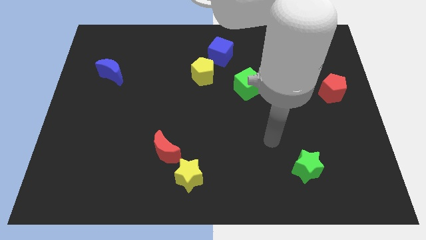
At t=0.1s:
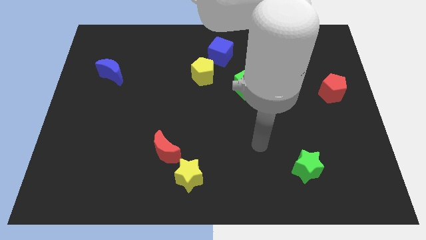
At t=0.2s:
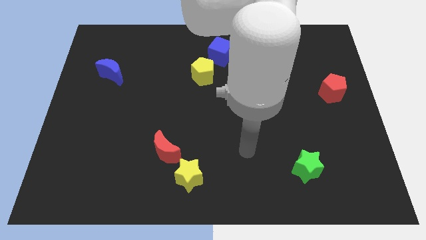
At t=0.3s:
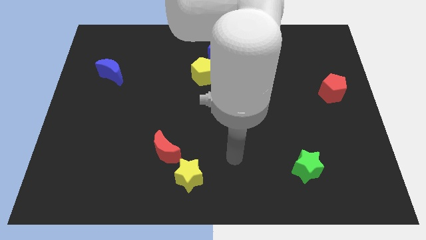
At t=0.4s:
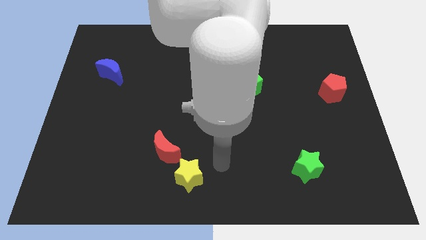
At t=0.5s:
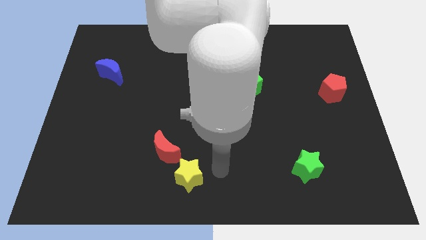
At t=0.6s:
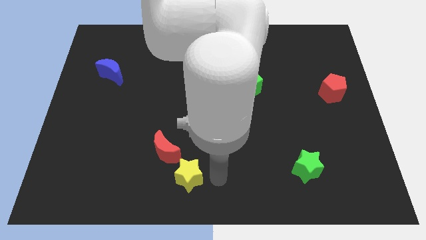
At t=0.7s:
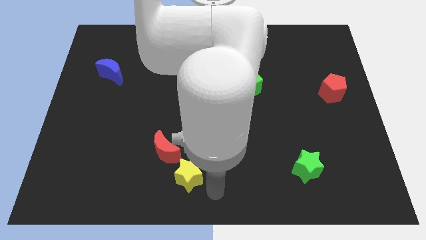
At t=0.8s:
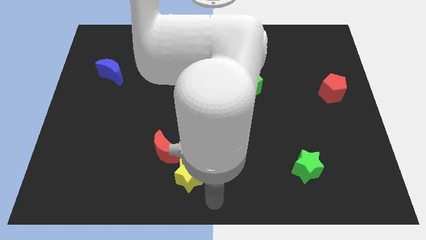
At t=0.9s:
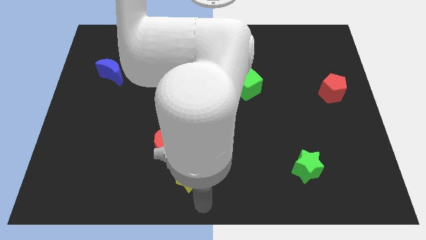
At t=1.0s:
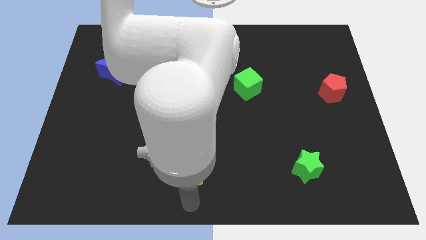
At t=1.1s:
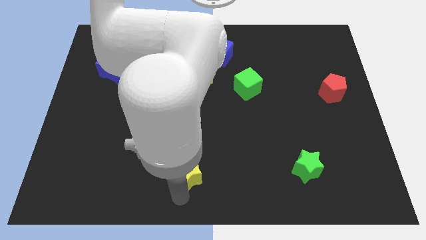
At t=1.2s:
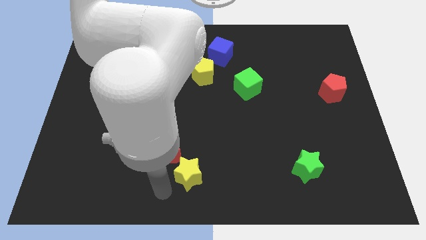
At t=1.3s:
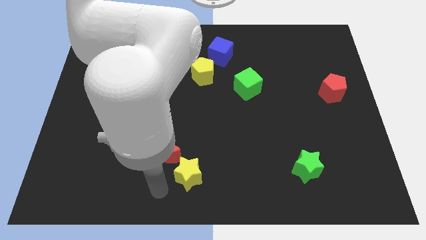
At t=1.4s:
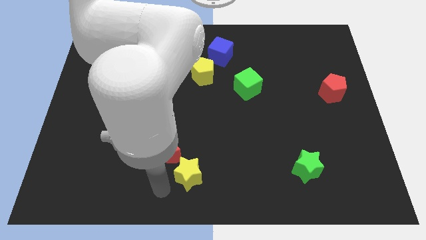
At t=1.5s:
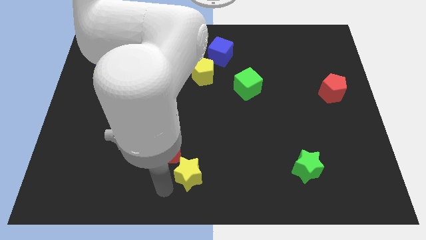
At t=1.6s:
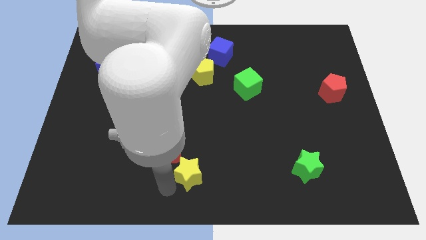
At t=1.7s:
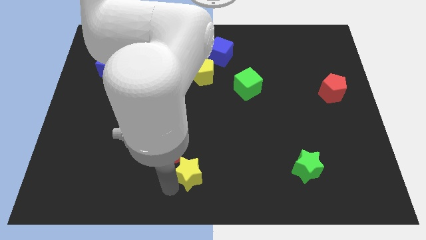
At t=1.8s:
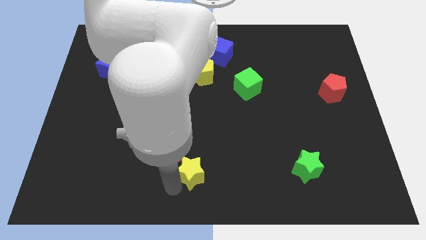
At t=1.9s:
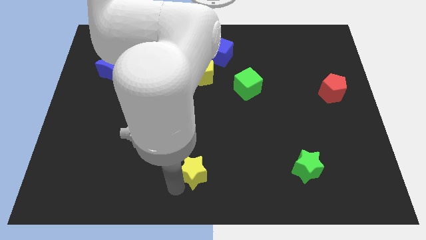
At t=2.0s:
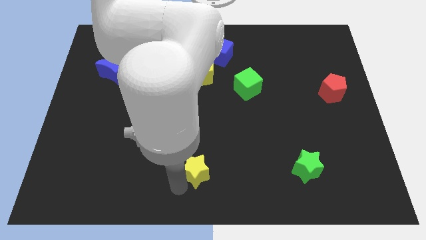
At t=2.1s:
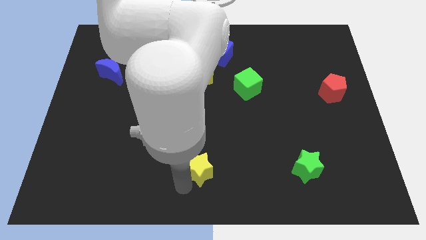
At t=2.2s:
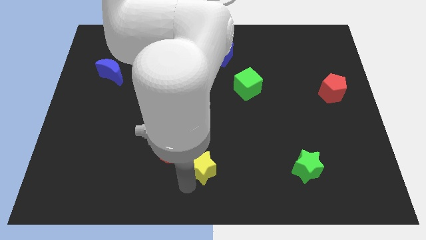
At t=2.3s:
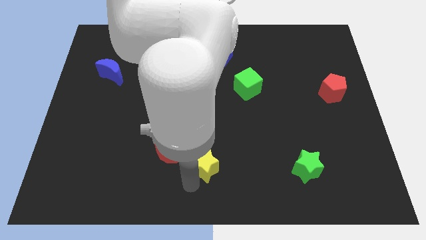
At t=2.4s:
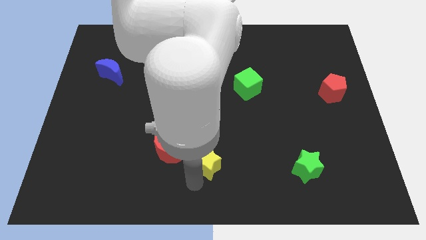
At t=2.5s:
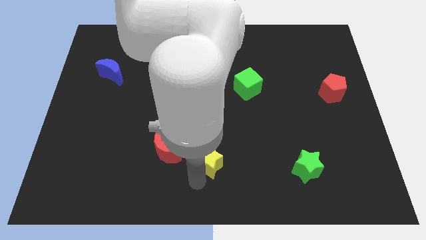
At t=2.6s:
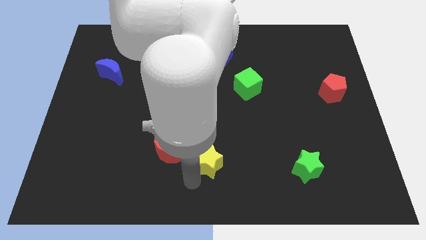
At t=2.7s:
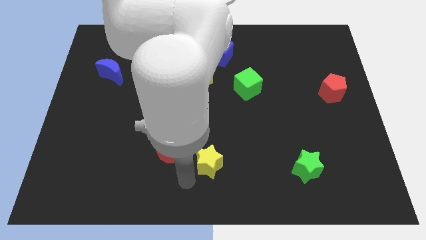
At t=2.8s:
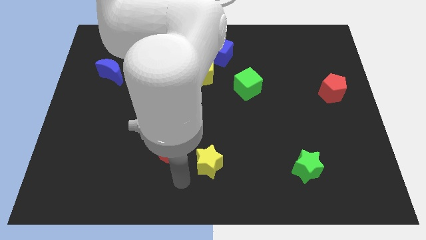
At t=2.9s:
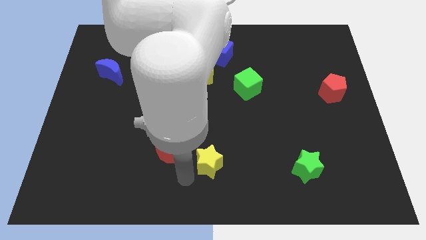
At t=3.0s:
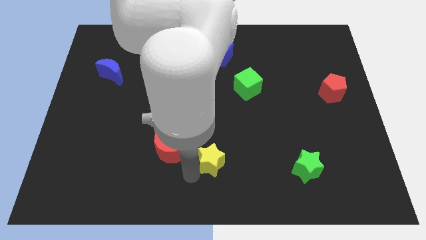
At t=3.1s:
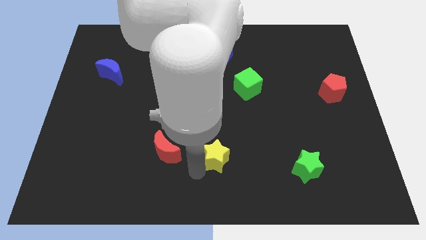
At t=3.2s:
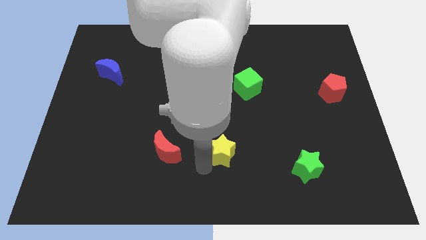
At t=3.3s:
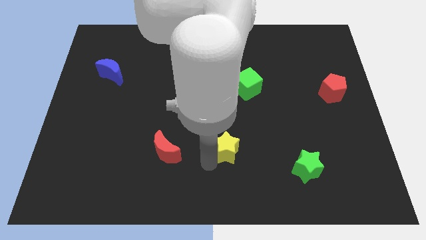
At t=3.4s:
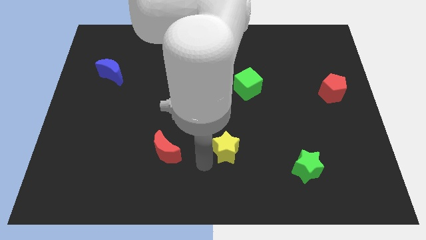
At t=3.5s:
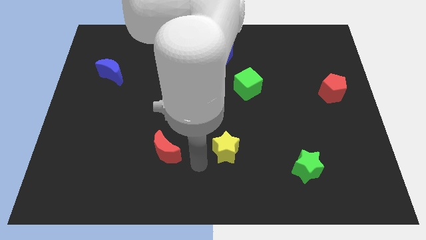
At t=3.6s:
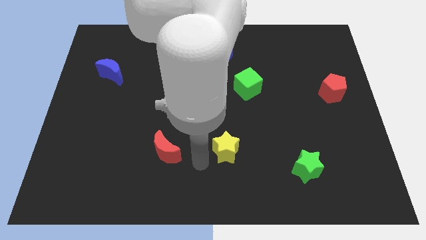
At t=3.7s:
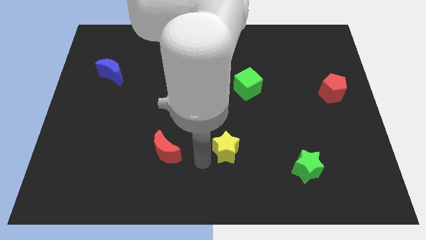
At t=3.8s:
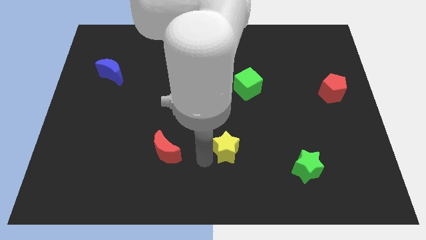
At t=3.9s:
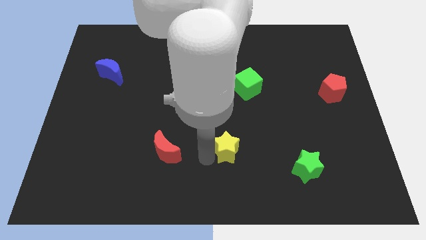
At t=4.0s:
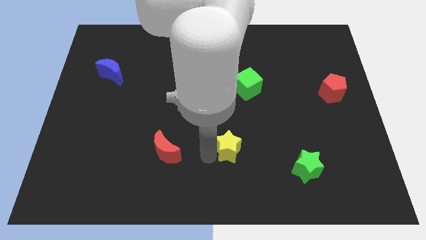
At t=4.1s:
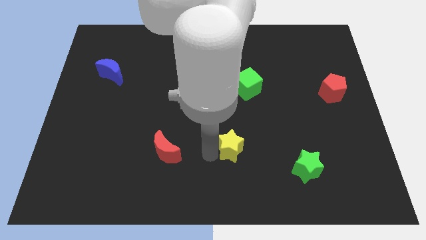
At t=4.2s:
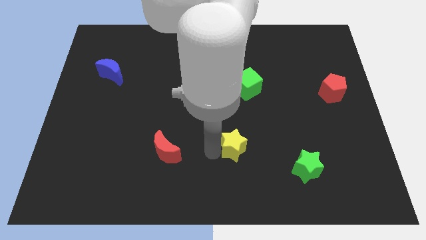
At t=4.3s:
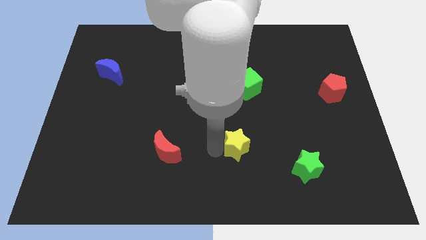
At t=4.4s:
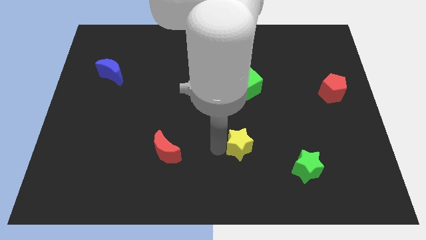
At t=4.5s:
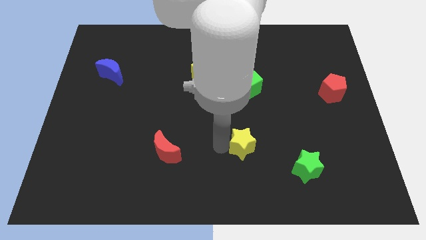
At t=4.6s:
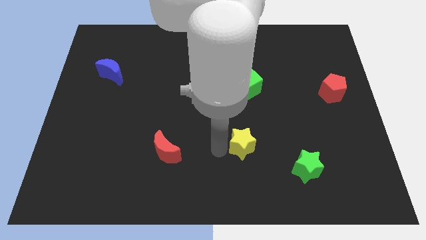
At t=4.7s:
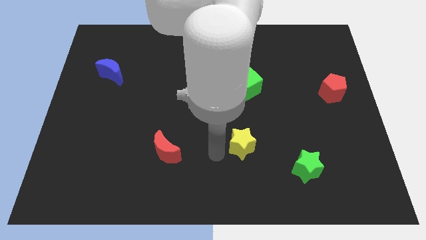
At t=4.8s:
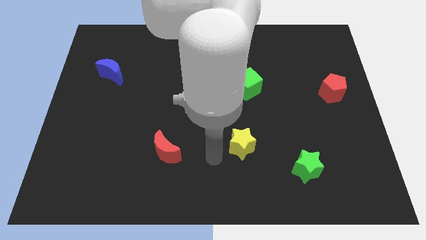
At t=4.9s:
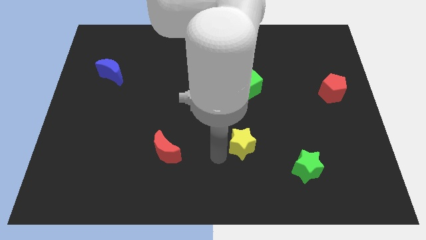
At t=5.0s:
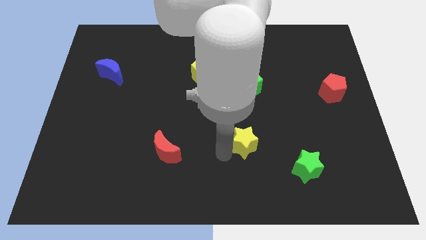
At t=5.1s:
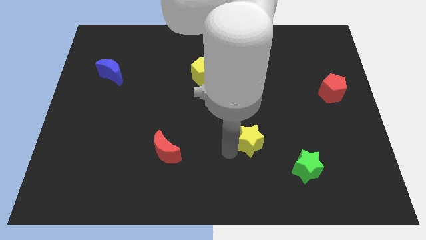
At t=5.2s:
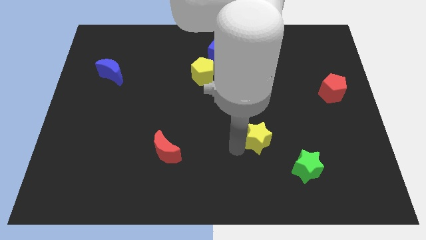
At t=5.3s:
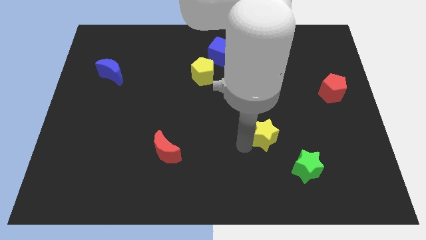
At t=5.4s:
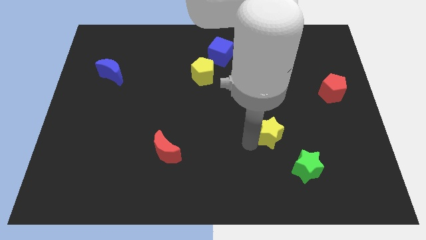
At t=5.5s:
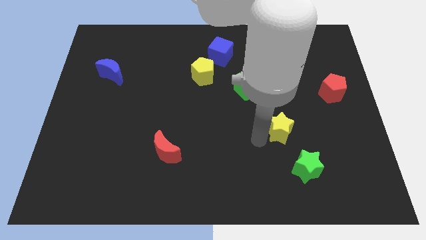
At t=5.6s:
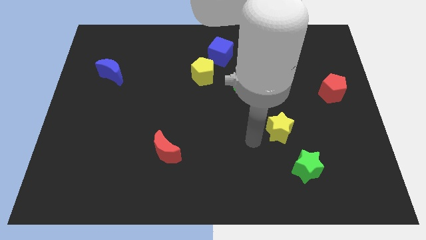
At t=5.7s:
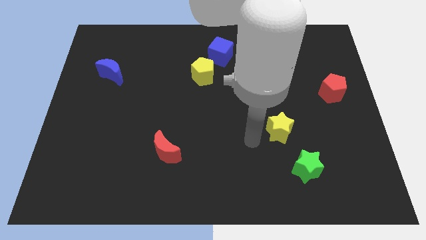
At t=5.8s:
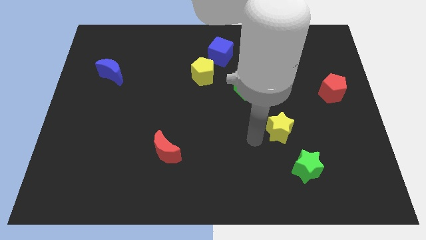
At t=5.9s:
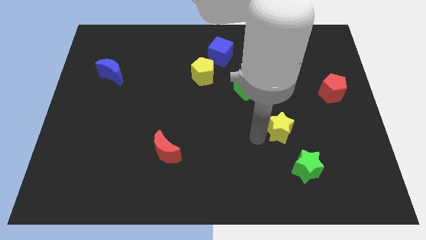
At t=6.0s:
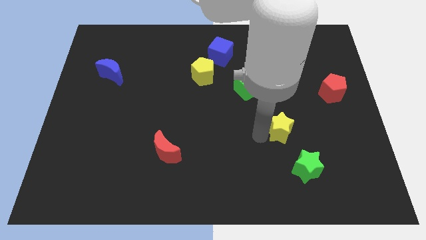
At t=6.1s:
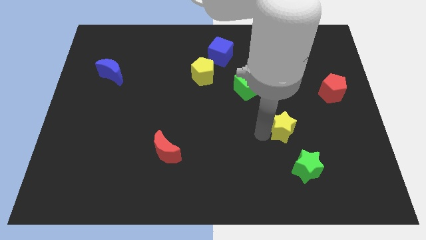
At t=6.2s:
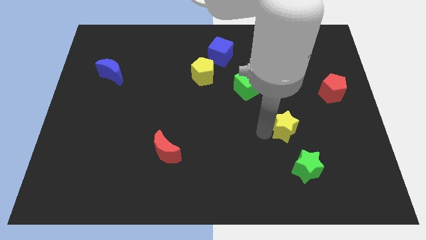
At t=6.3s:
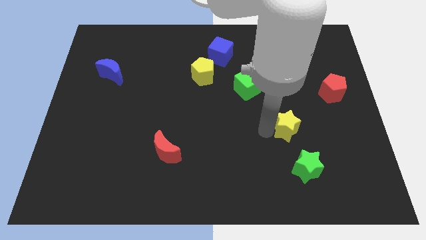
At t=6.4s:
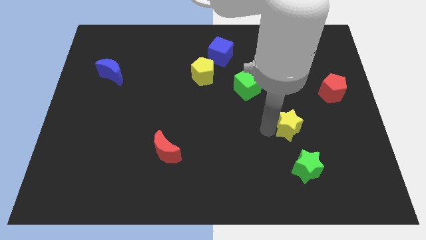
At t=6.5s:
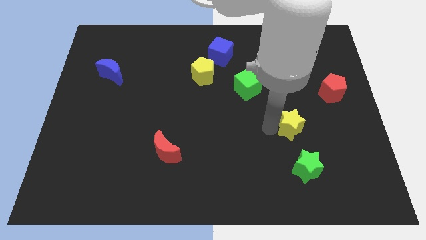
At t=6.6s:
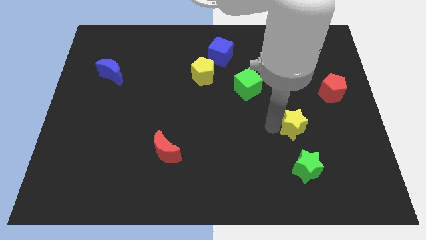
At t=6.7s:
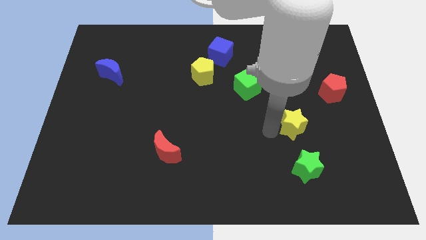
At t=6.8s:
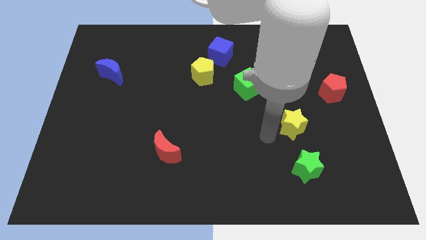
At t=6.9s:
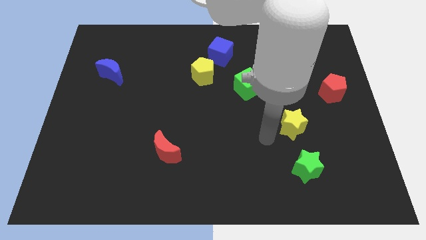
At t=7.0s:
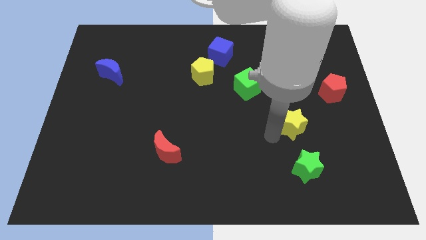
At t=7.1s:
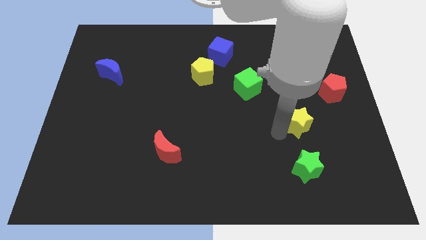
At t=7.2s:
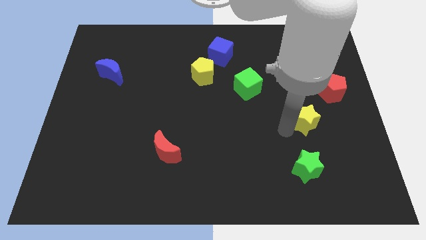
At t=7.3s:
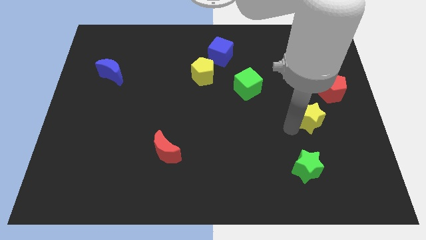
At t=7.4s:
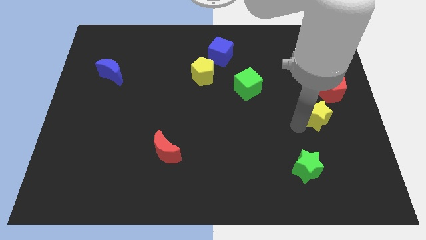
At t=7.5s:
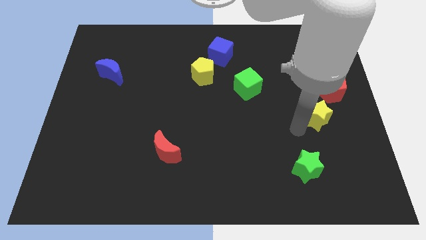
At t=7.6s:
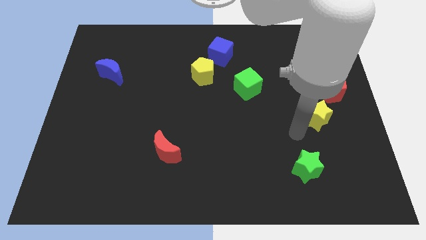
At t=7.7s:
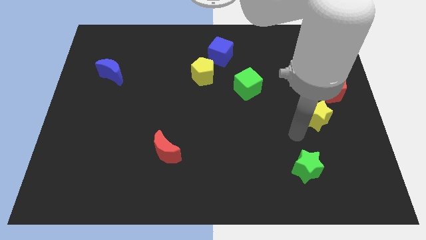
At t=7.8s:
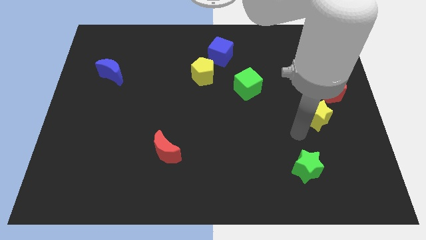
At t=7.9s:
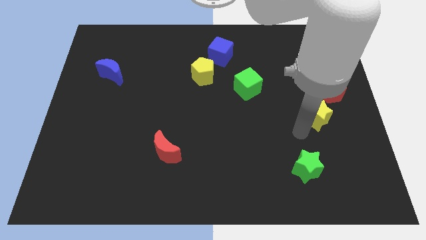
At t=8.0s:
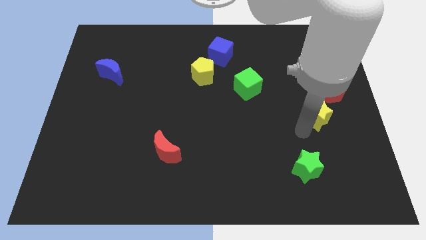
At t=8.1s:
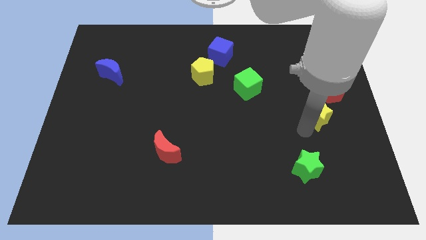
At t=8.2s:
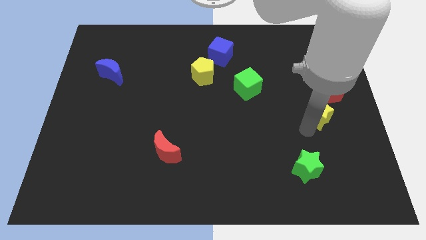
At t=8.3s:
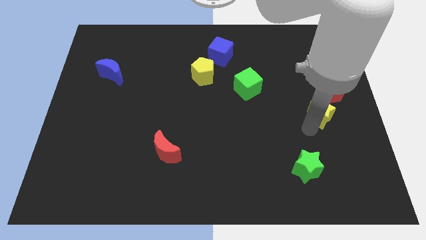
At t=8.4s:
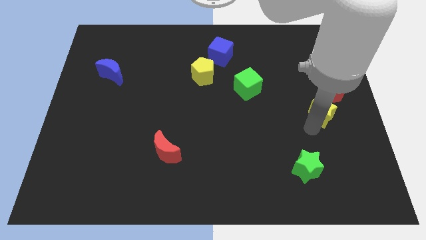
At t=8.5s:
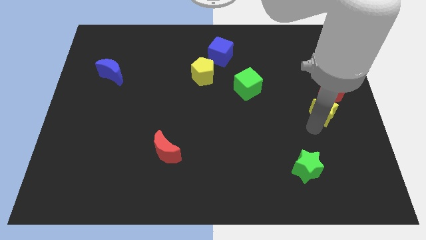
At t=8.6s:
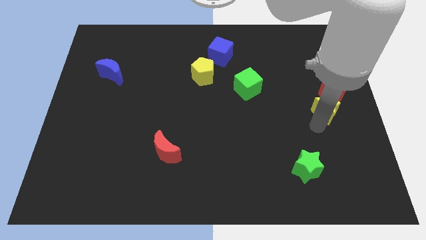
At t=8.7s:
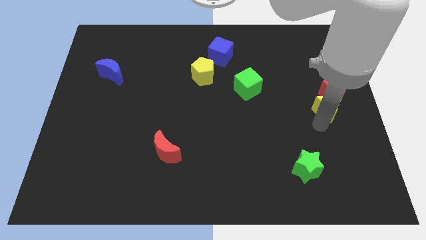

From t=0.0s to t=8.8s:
put the yellow star close to the red pentagon
